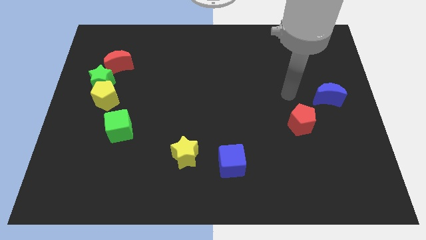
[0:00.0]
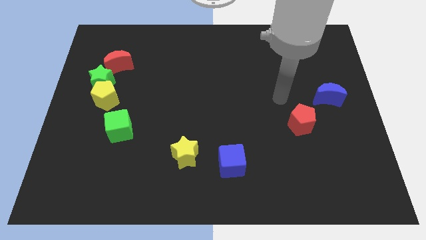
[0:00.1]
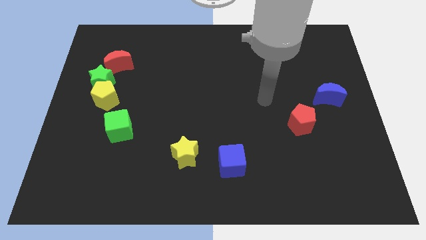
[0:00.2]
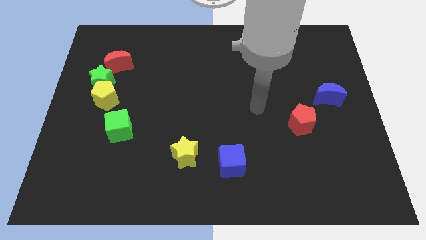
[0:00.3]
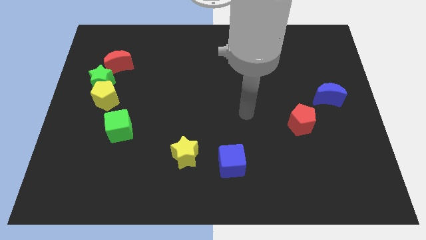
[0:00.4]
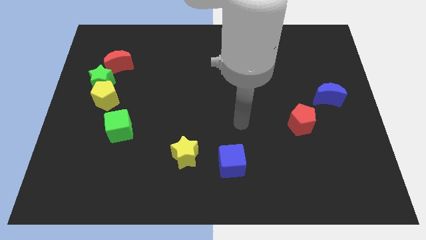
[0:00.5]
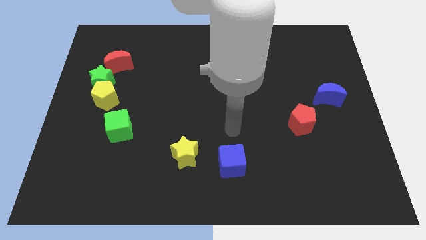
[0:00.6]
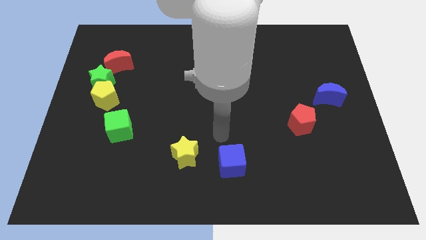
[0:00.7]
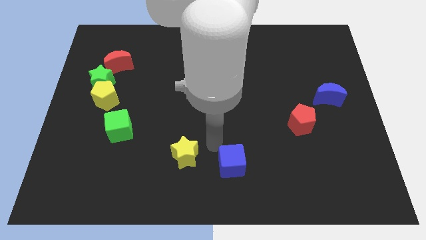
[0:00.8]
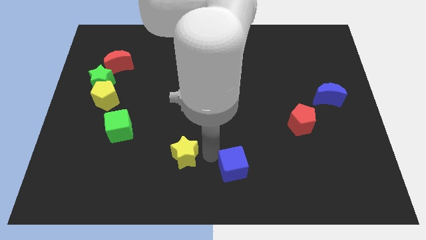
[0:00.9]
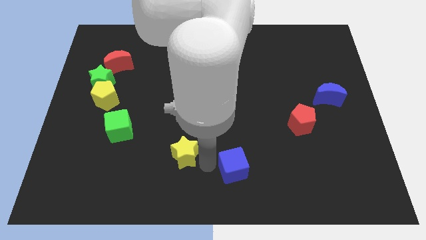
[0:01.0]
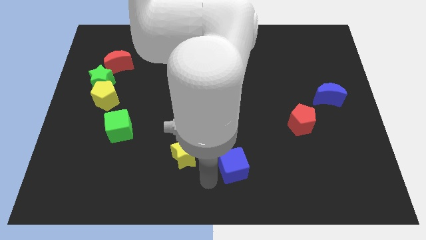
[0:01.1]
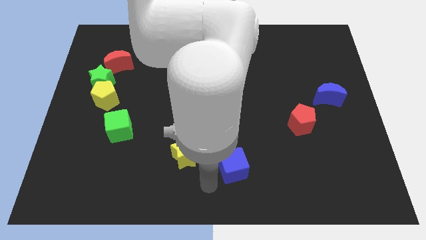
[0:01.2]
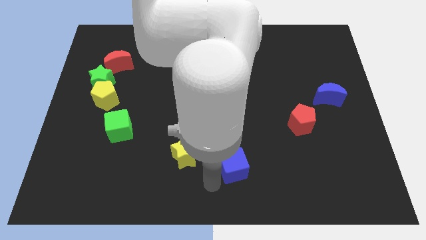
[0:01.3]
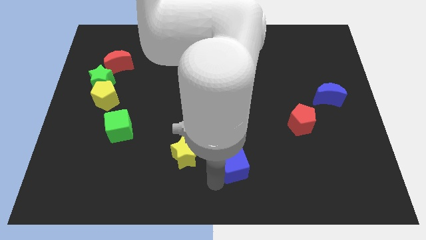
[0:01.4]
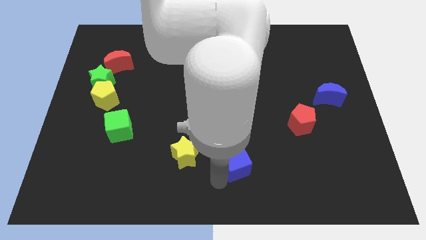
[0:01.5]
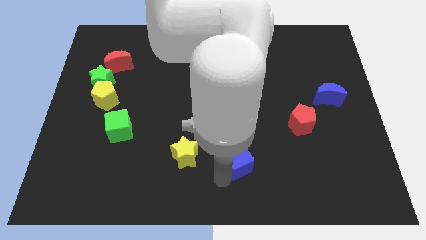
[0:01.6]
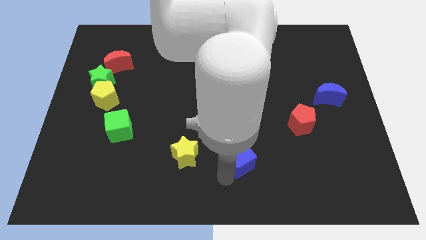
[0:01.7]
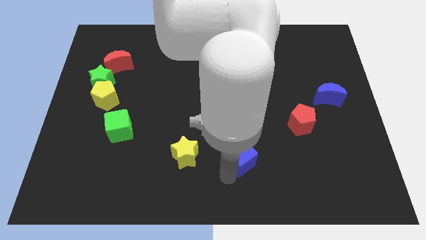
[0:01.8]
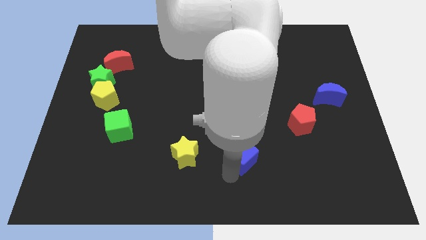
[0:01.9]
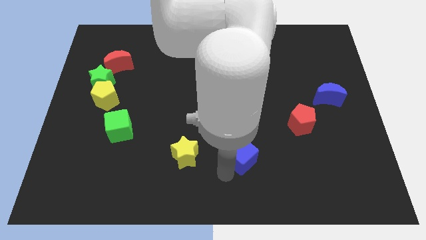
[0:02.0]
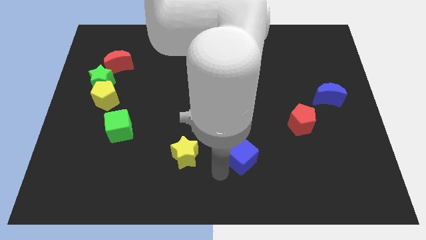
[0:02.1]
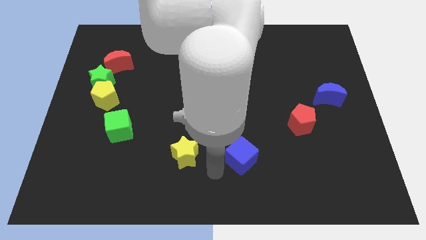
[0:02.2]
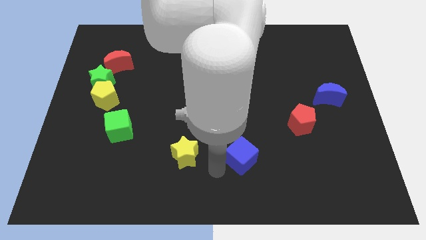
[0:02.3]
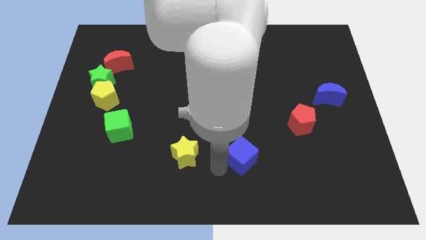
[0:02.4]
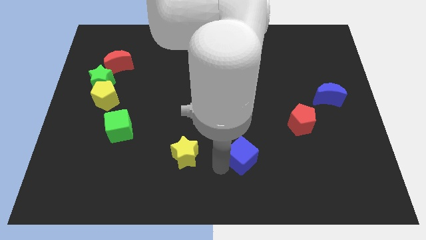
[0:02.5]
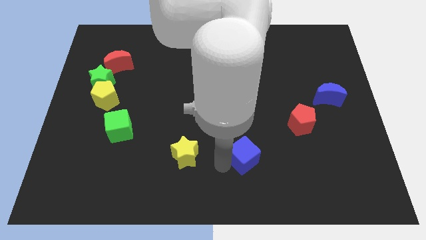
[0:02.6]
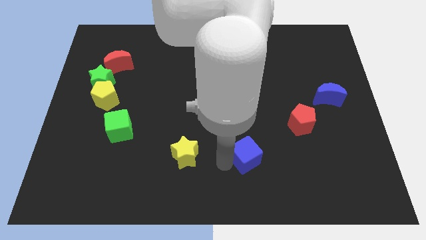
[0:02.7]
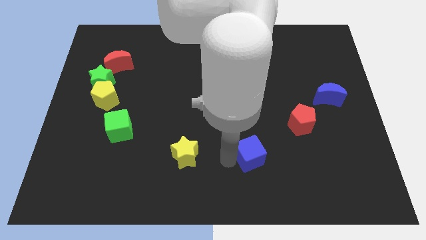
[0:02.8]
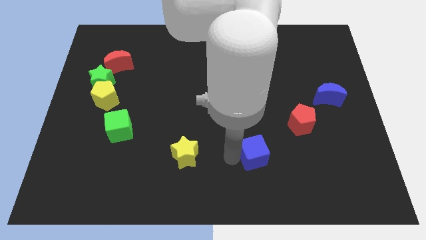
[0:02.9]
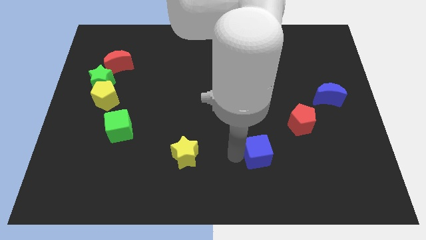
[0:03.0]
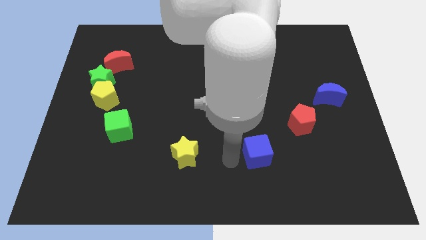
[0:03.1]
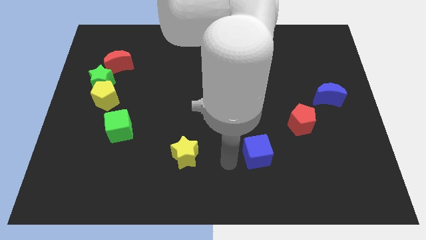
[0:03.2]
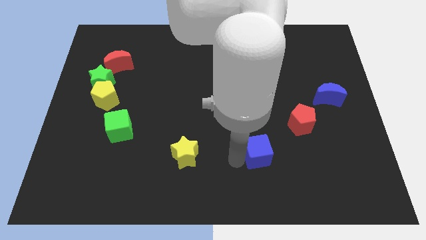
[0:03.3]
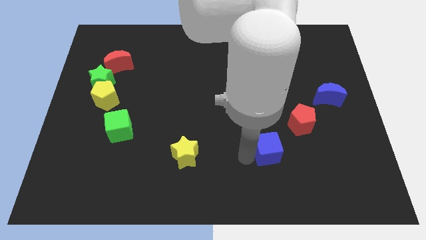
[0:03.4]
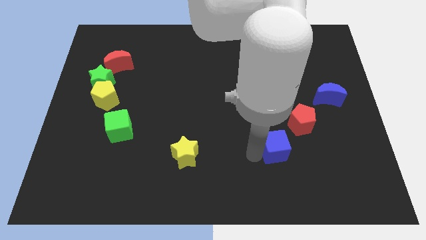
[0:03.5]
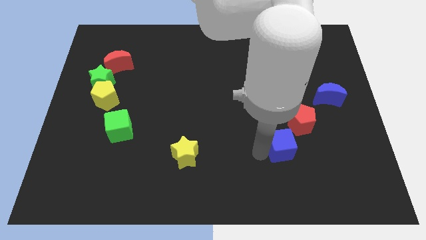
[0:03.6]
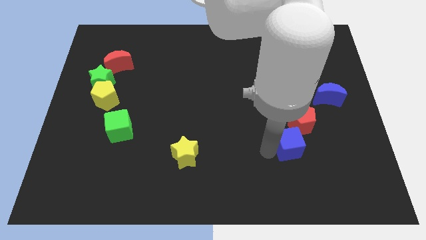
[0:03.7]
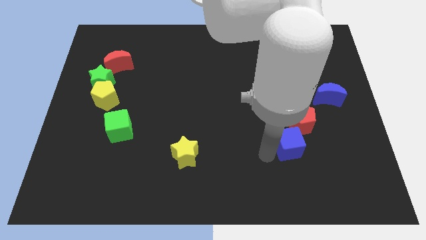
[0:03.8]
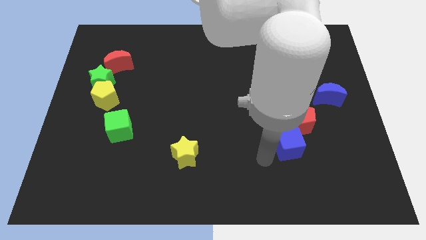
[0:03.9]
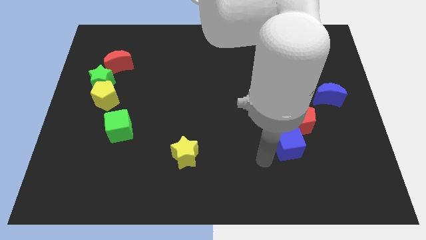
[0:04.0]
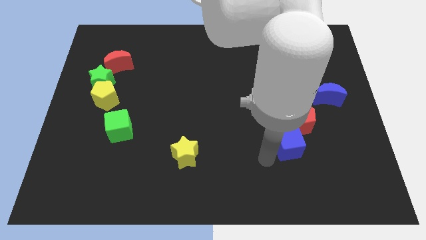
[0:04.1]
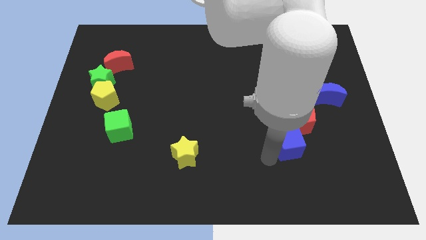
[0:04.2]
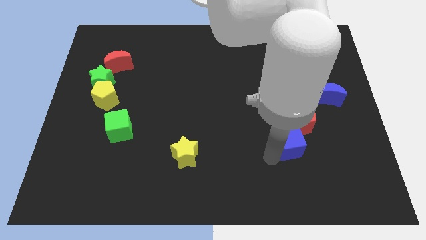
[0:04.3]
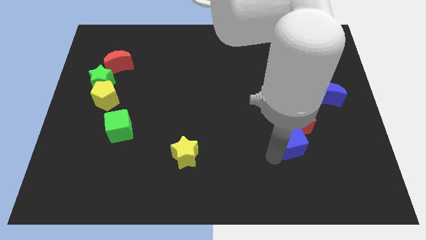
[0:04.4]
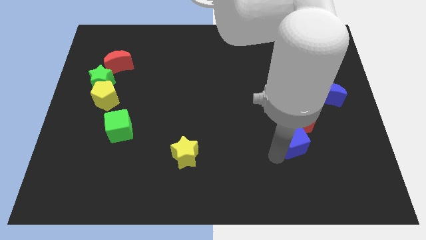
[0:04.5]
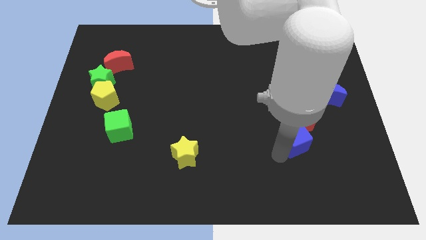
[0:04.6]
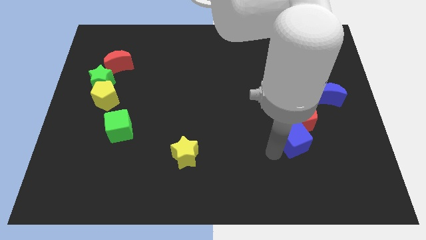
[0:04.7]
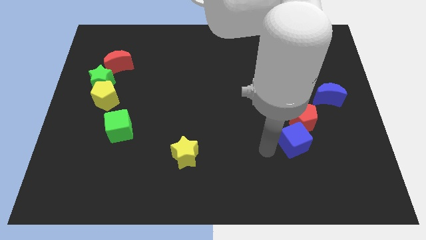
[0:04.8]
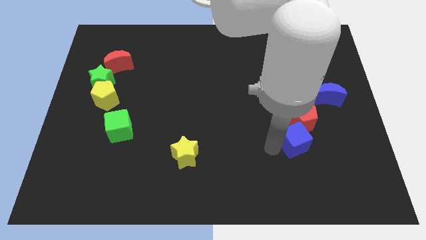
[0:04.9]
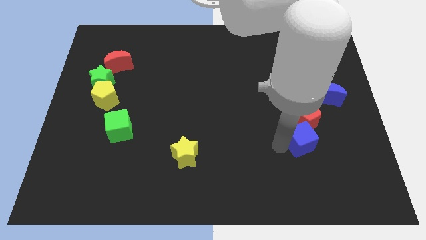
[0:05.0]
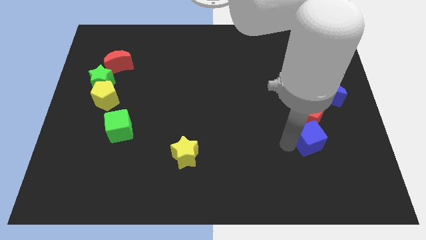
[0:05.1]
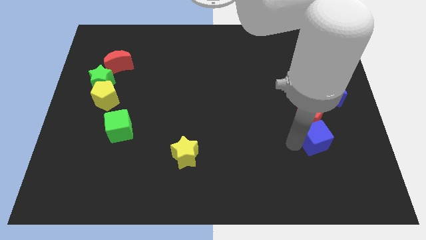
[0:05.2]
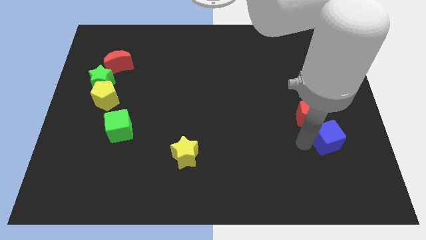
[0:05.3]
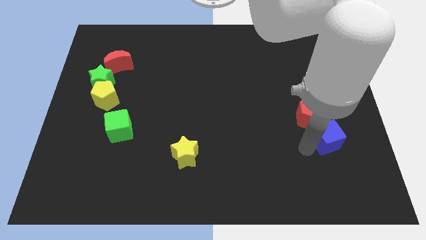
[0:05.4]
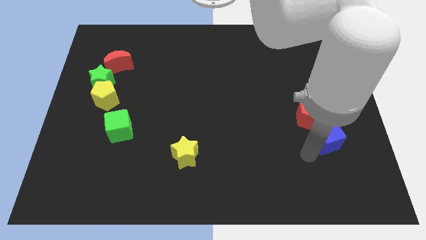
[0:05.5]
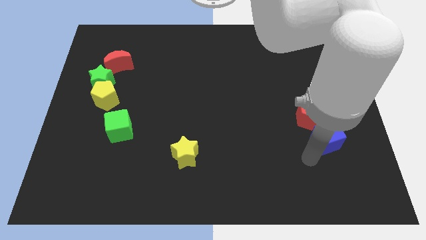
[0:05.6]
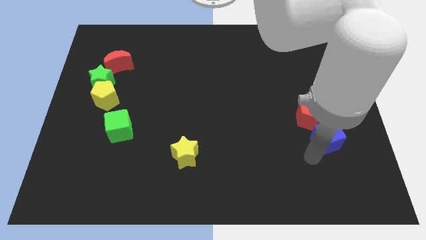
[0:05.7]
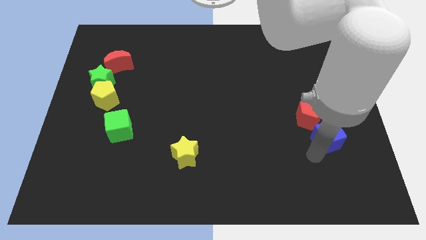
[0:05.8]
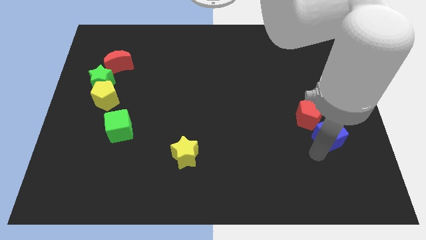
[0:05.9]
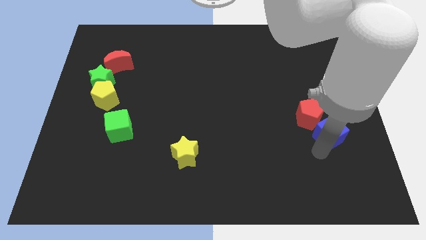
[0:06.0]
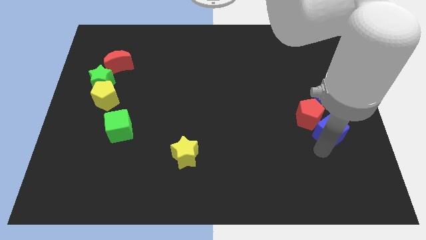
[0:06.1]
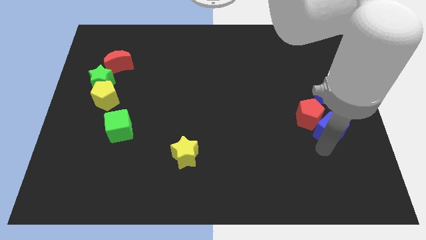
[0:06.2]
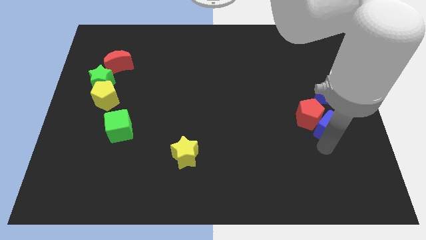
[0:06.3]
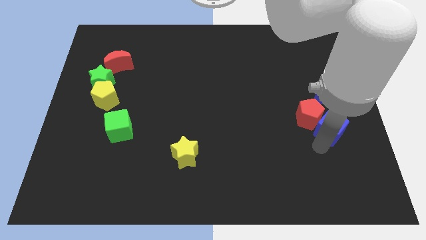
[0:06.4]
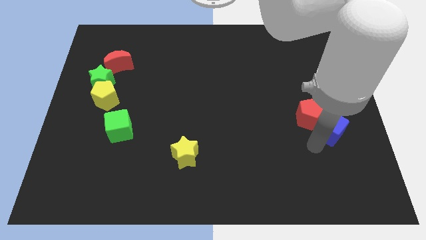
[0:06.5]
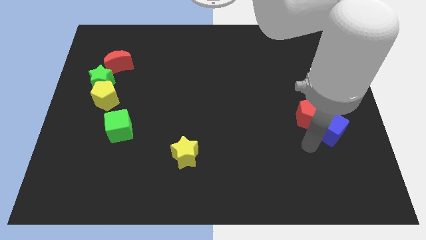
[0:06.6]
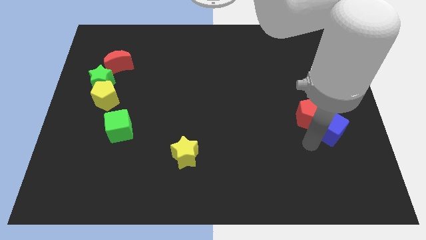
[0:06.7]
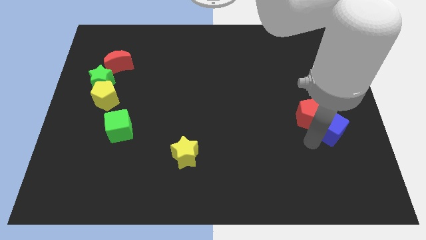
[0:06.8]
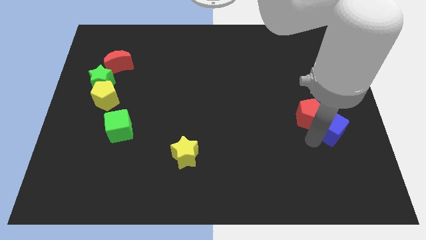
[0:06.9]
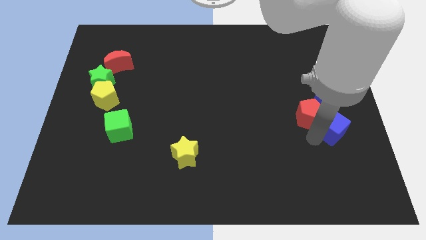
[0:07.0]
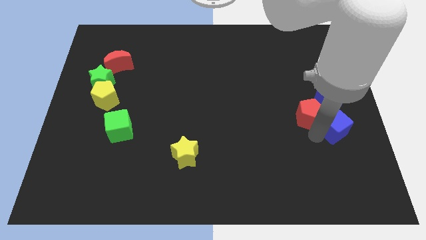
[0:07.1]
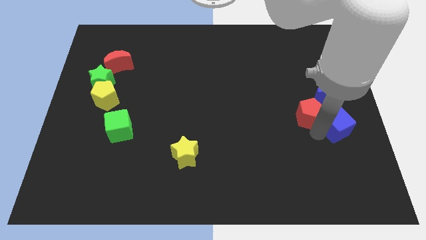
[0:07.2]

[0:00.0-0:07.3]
move the blue cube to the right side

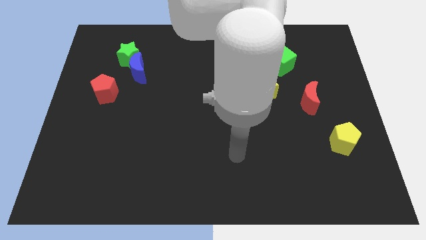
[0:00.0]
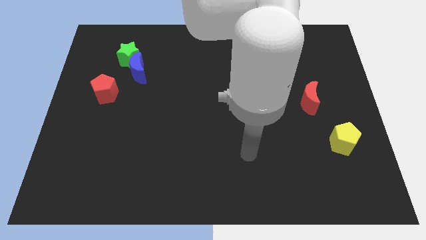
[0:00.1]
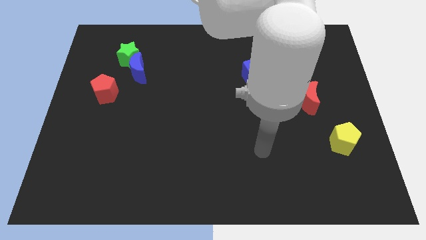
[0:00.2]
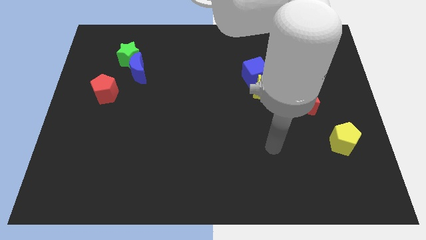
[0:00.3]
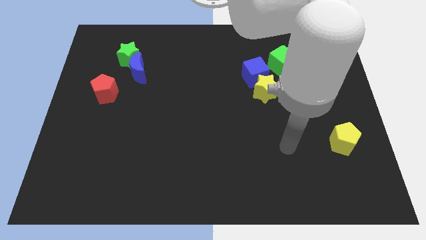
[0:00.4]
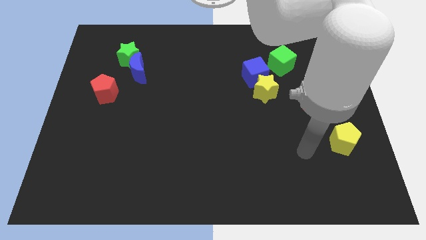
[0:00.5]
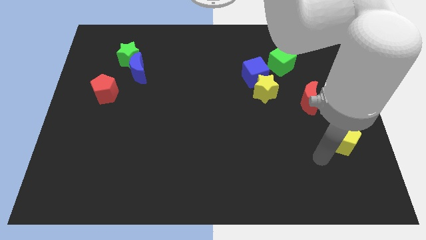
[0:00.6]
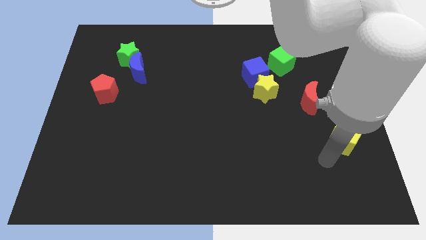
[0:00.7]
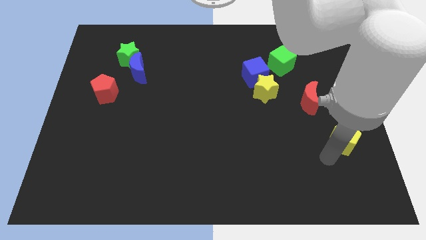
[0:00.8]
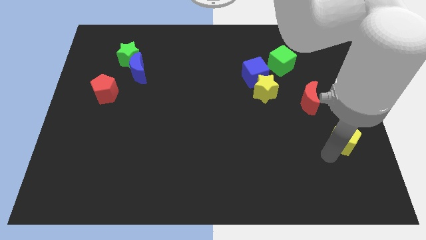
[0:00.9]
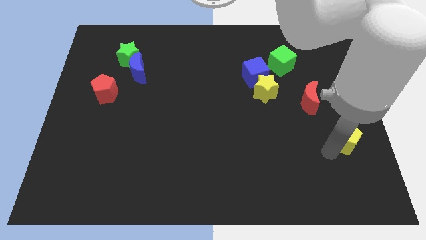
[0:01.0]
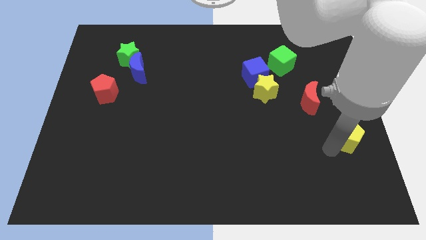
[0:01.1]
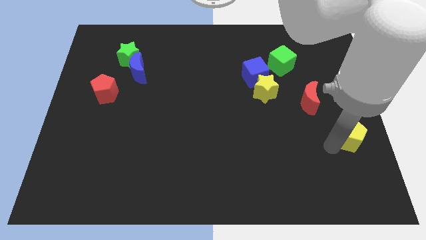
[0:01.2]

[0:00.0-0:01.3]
push the yellow pentagon to the right side
